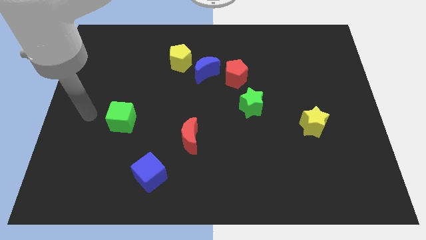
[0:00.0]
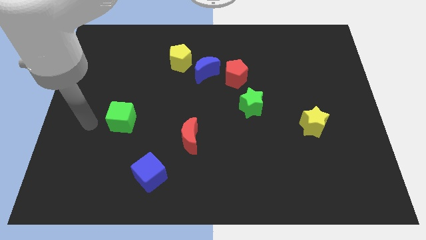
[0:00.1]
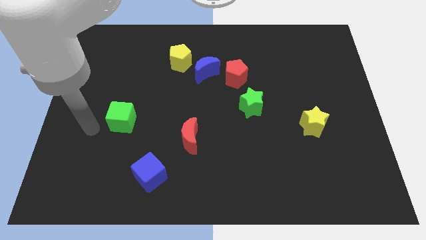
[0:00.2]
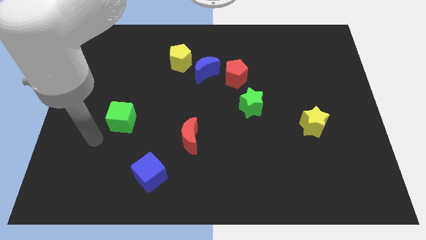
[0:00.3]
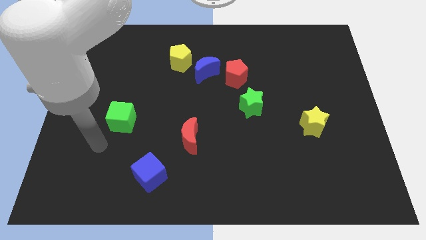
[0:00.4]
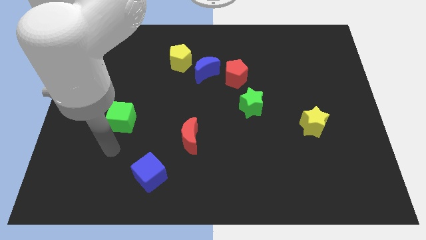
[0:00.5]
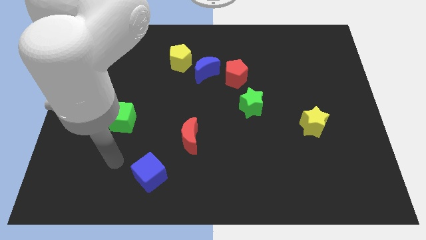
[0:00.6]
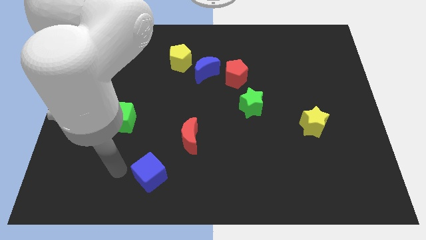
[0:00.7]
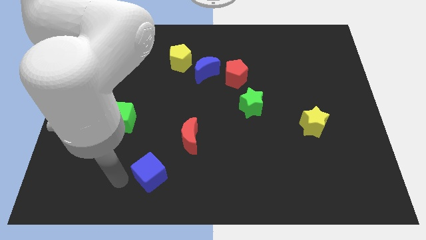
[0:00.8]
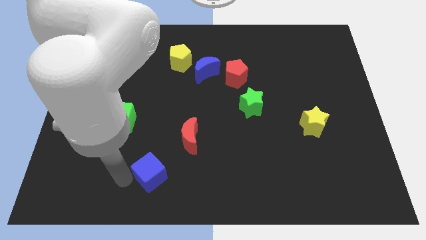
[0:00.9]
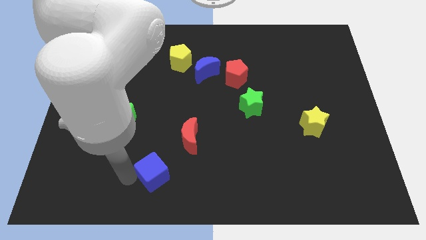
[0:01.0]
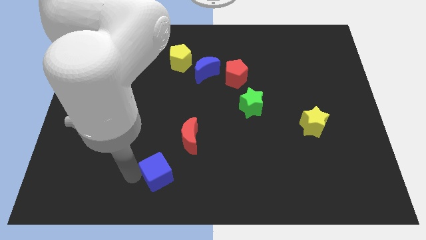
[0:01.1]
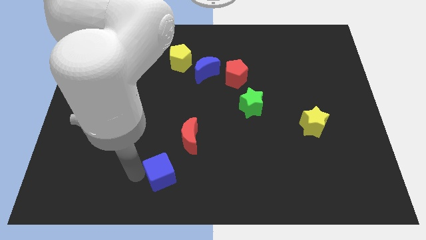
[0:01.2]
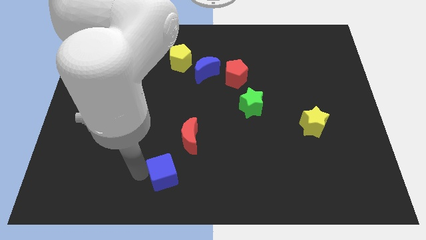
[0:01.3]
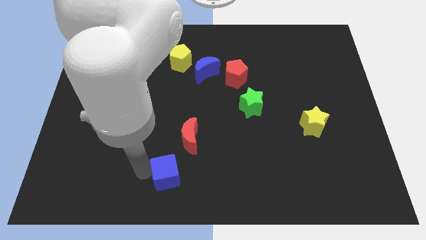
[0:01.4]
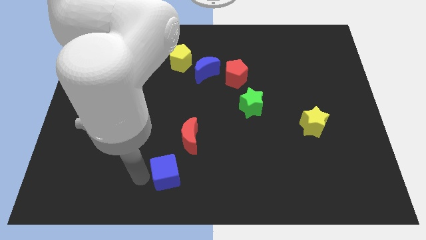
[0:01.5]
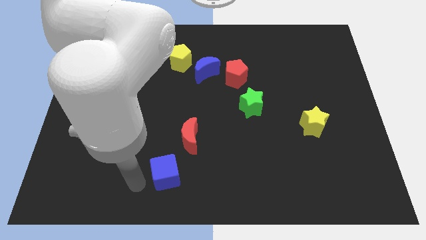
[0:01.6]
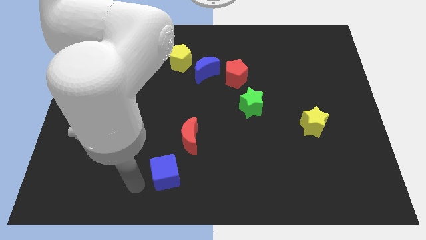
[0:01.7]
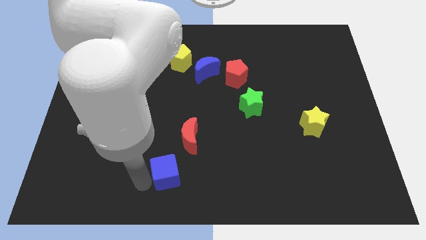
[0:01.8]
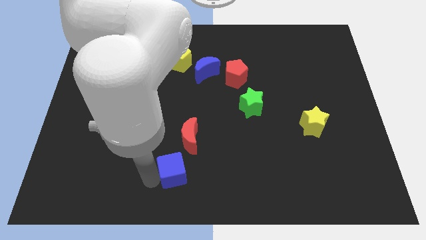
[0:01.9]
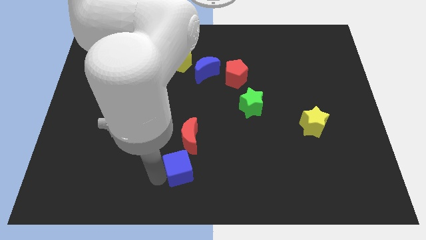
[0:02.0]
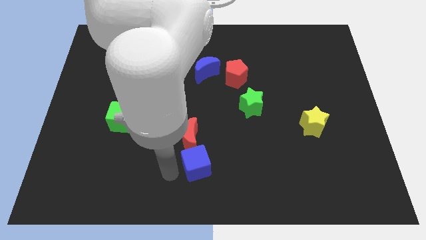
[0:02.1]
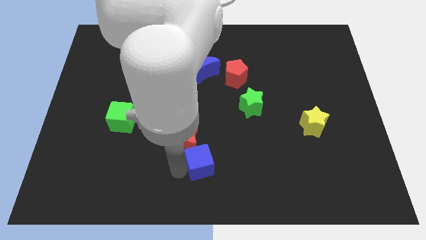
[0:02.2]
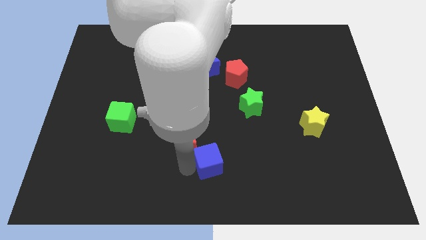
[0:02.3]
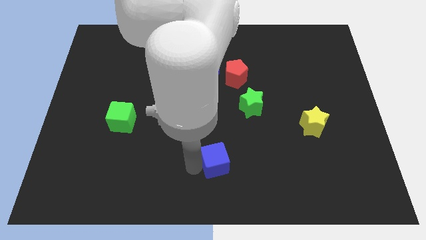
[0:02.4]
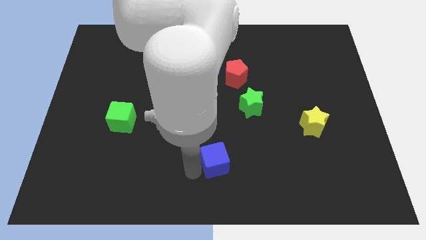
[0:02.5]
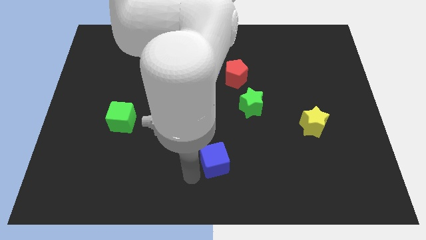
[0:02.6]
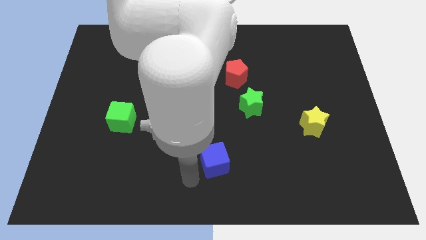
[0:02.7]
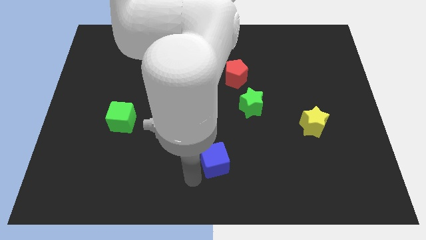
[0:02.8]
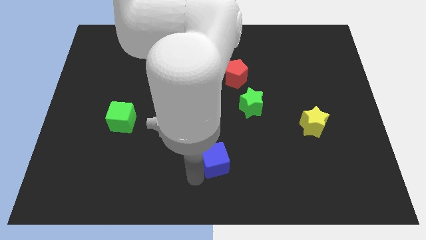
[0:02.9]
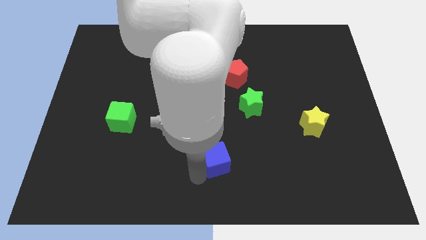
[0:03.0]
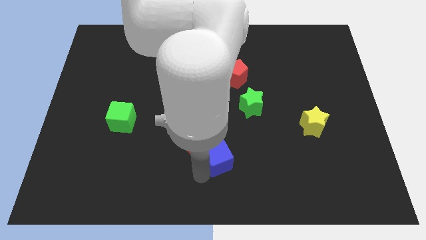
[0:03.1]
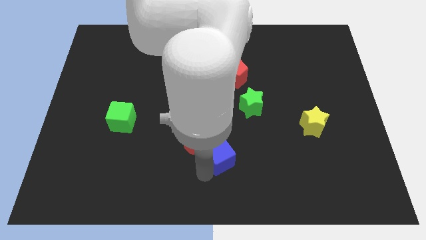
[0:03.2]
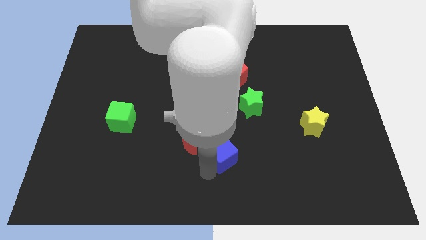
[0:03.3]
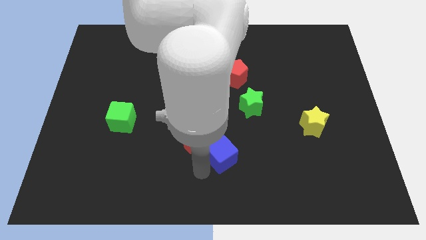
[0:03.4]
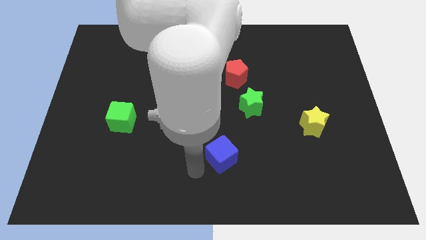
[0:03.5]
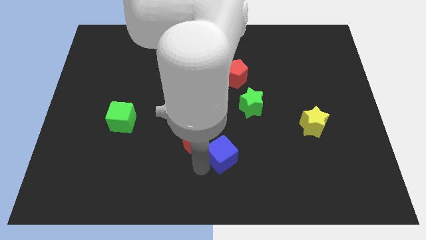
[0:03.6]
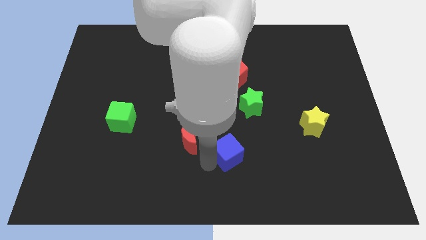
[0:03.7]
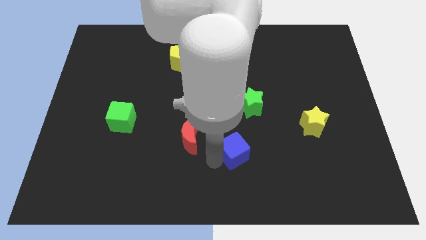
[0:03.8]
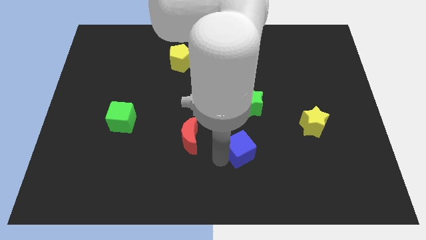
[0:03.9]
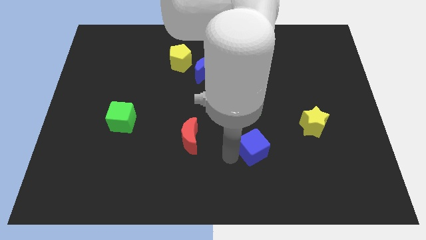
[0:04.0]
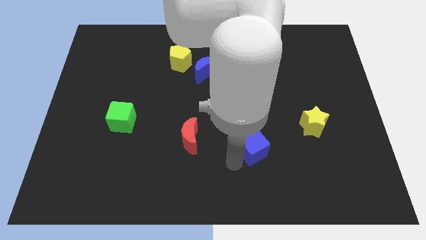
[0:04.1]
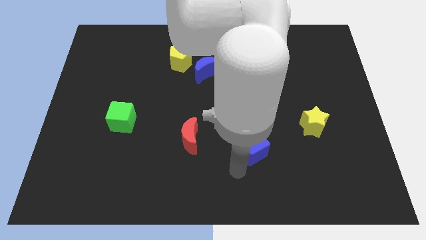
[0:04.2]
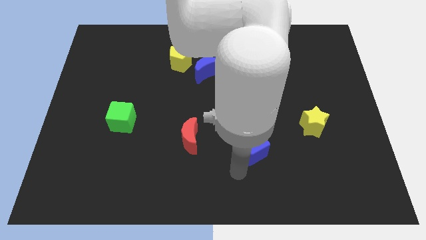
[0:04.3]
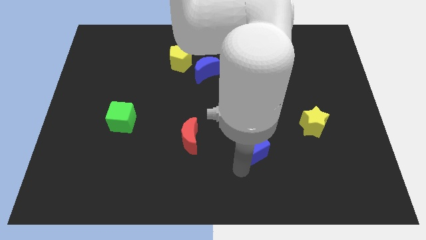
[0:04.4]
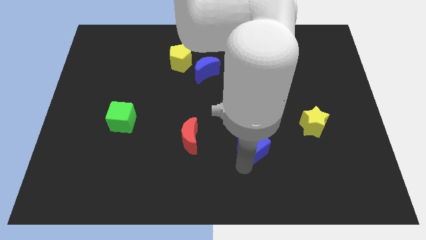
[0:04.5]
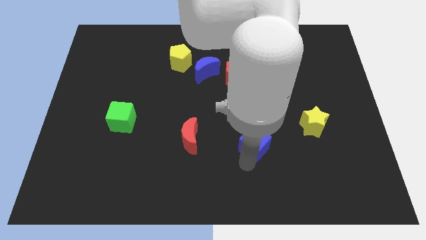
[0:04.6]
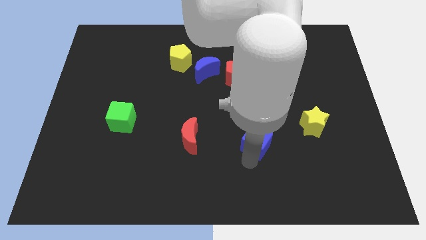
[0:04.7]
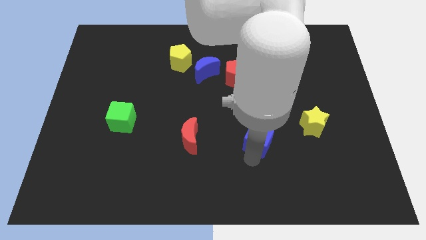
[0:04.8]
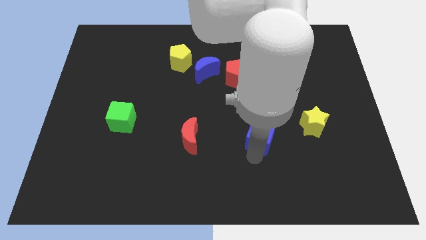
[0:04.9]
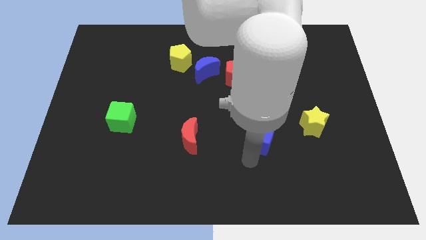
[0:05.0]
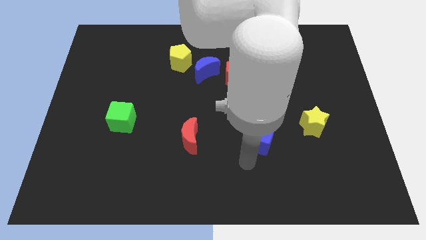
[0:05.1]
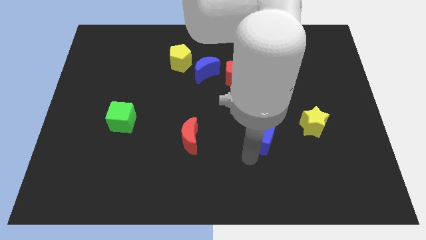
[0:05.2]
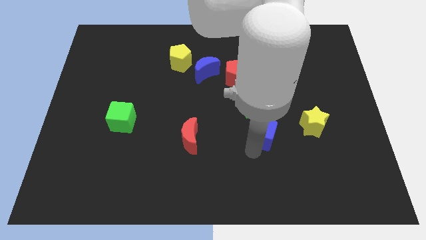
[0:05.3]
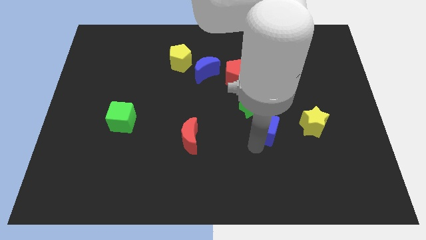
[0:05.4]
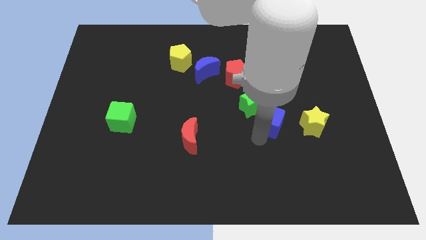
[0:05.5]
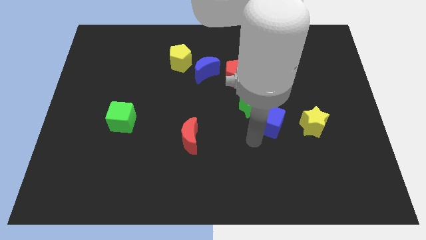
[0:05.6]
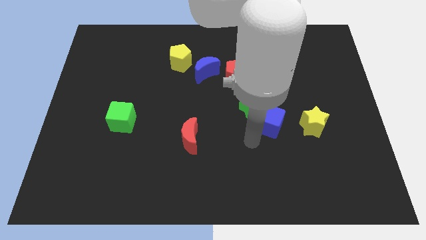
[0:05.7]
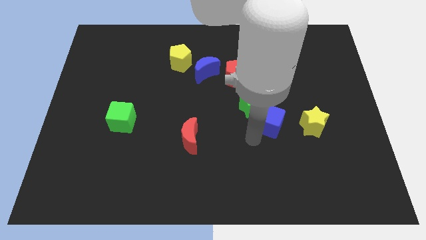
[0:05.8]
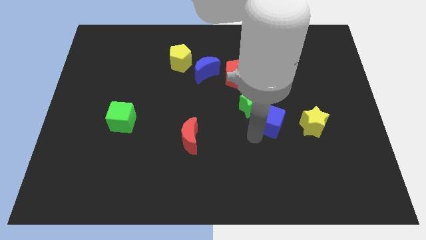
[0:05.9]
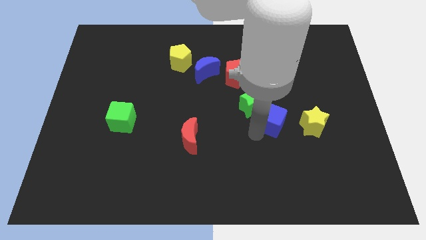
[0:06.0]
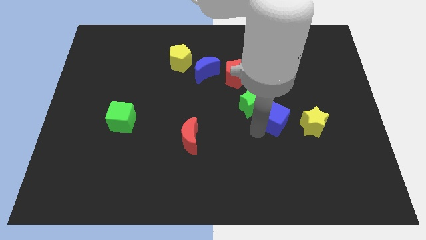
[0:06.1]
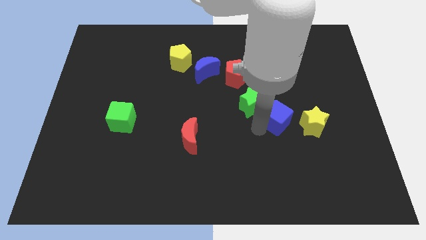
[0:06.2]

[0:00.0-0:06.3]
push the blue cube to the top left side of the yellow star

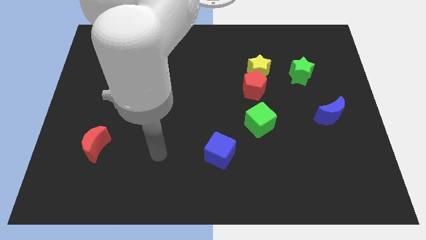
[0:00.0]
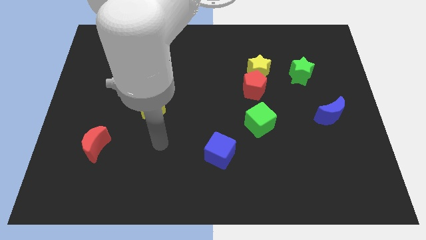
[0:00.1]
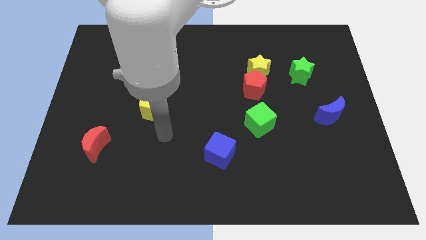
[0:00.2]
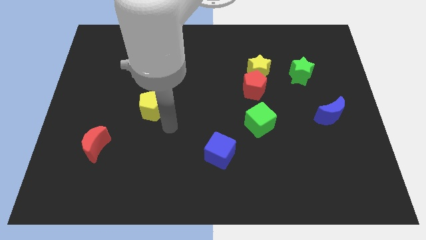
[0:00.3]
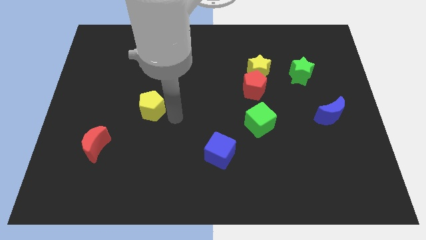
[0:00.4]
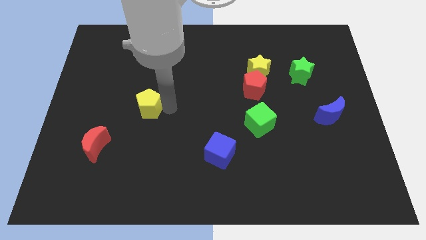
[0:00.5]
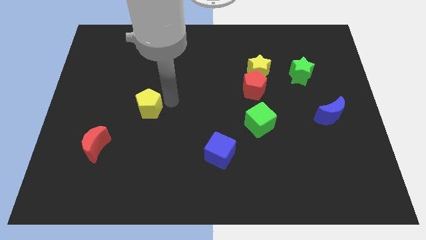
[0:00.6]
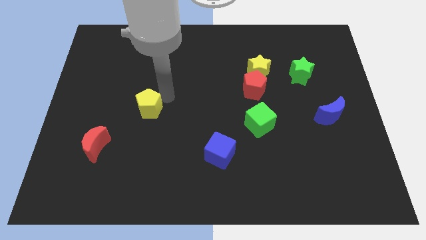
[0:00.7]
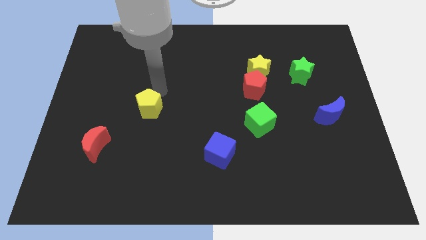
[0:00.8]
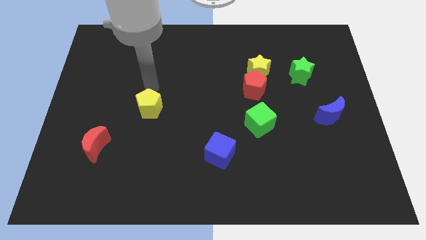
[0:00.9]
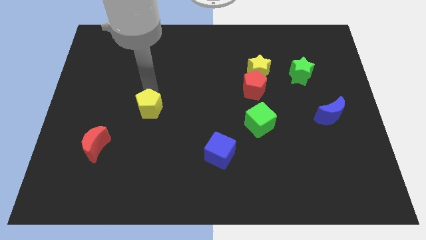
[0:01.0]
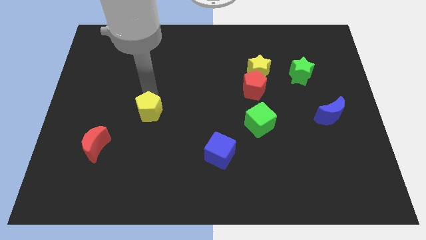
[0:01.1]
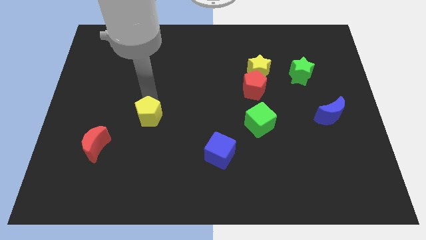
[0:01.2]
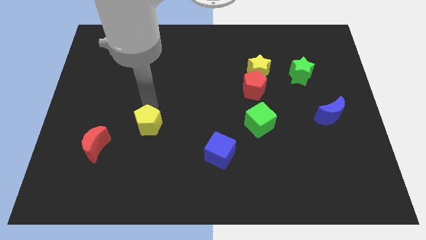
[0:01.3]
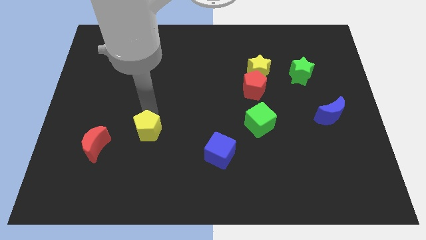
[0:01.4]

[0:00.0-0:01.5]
put the yellow pentagon just right of the red moon
